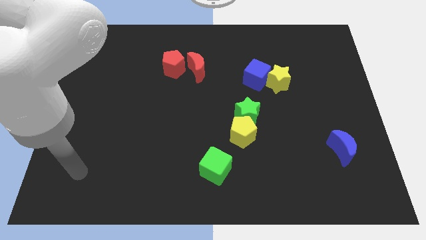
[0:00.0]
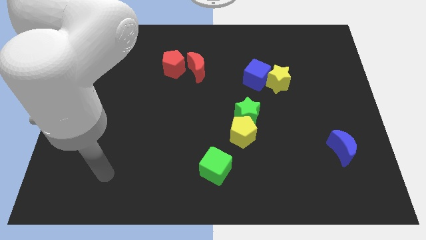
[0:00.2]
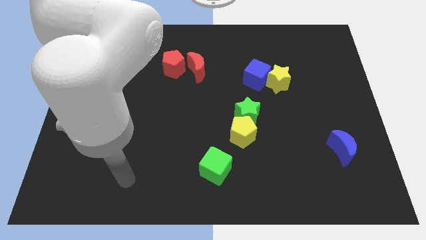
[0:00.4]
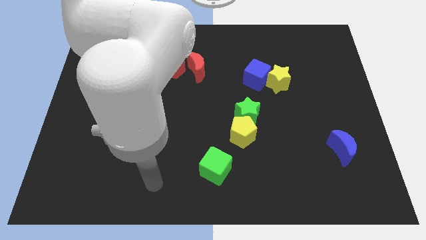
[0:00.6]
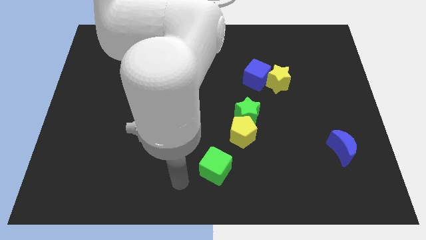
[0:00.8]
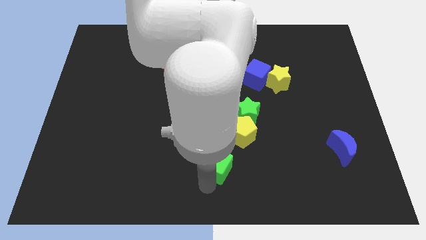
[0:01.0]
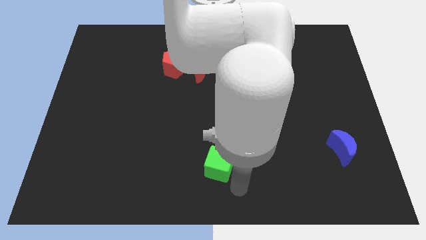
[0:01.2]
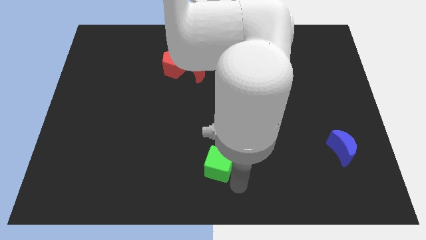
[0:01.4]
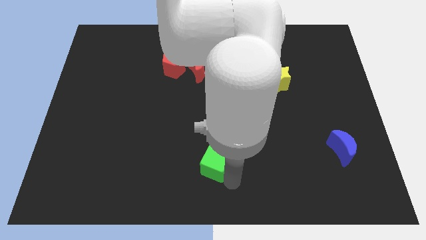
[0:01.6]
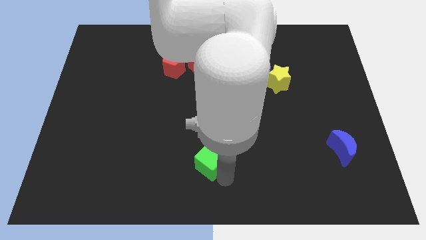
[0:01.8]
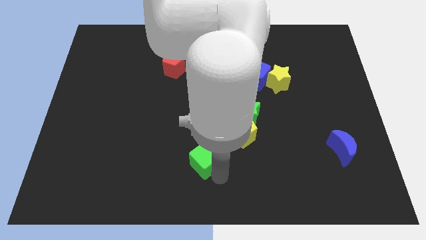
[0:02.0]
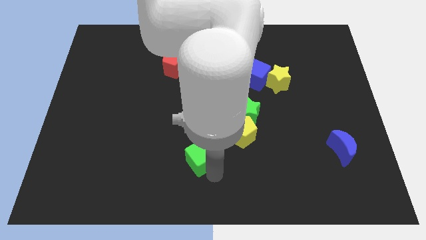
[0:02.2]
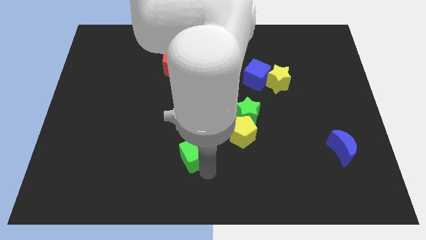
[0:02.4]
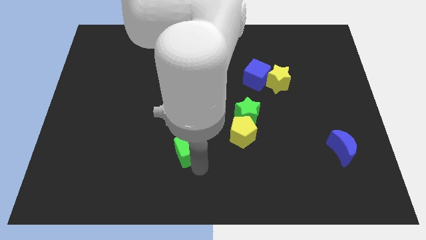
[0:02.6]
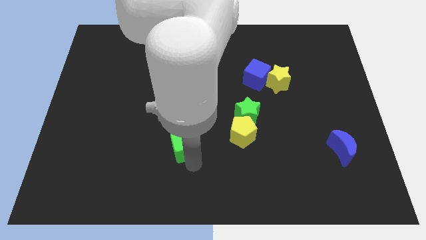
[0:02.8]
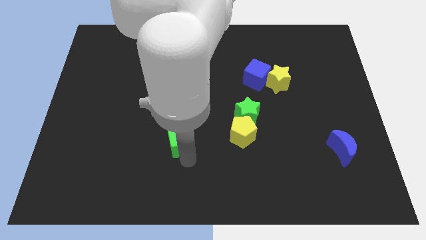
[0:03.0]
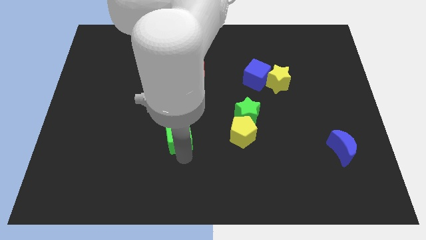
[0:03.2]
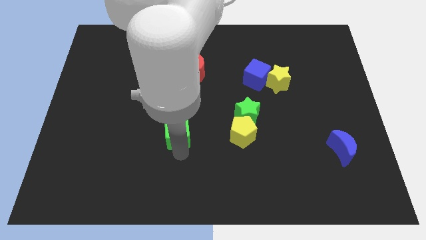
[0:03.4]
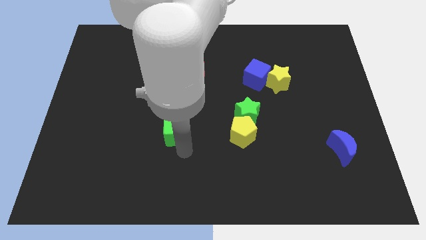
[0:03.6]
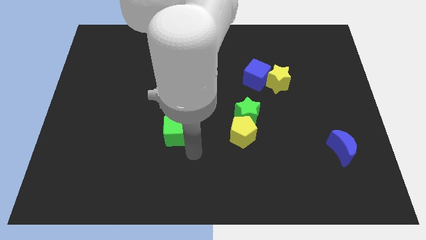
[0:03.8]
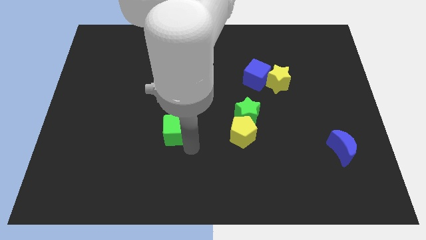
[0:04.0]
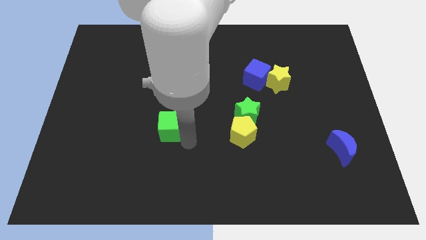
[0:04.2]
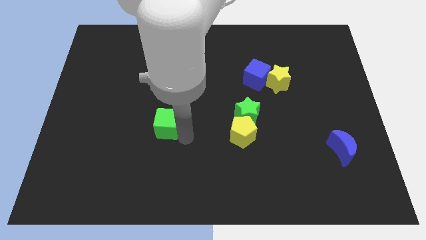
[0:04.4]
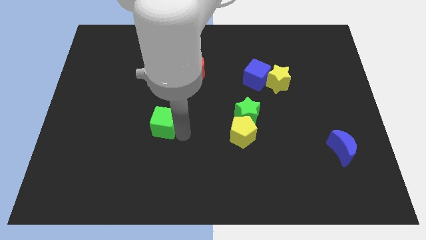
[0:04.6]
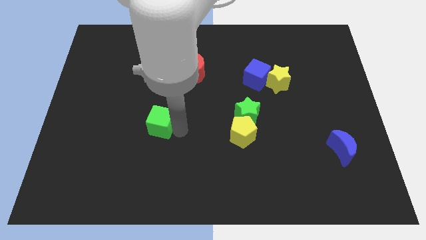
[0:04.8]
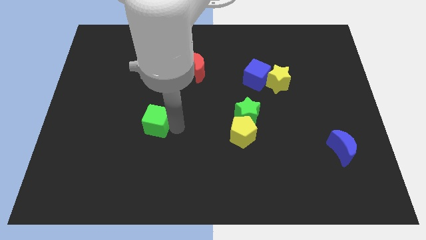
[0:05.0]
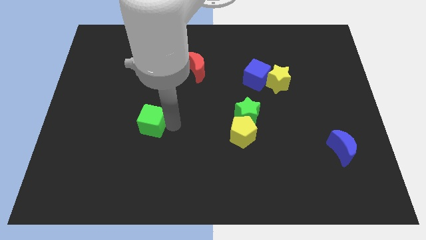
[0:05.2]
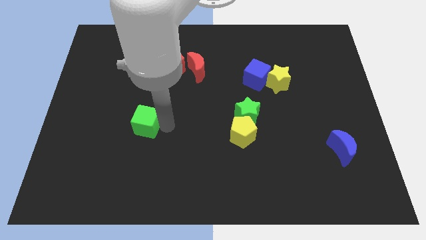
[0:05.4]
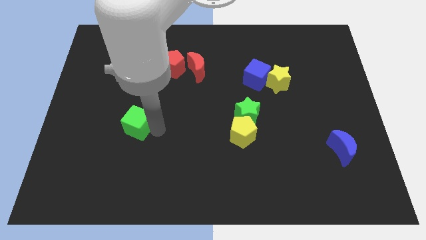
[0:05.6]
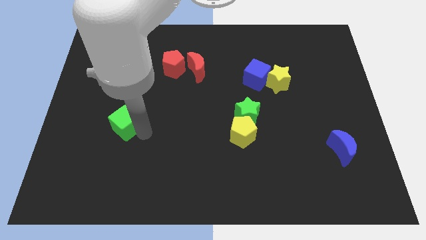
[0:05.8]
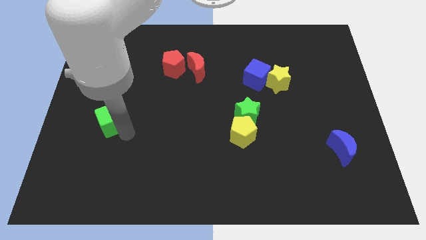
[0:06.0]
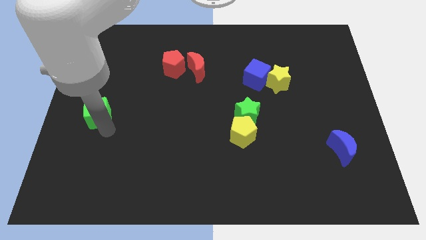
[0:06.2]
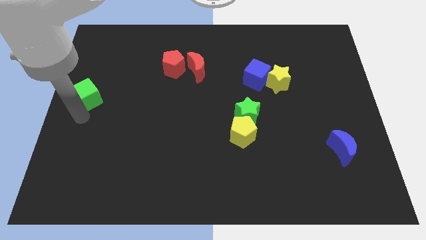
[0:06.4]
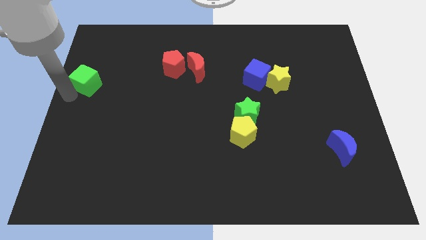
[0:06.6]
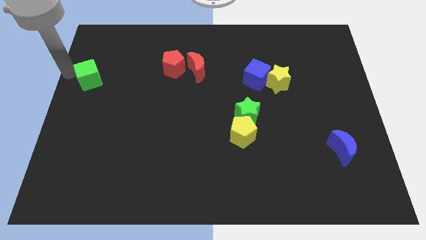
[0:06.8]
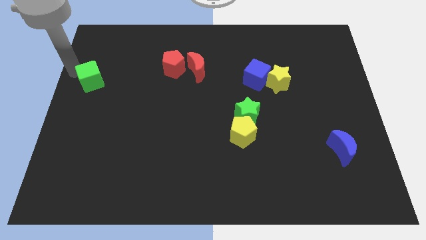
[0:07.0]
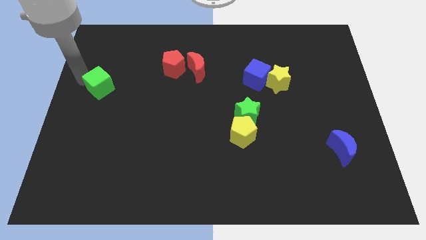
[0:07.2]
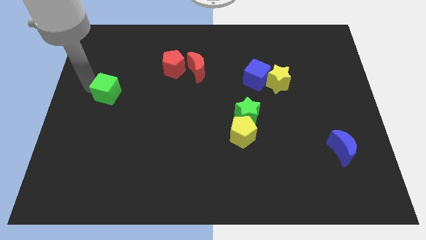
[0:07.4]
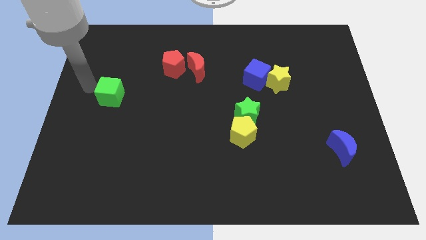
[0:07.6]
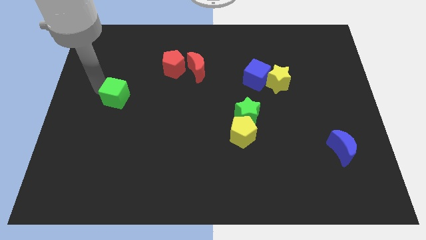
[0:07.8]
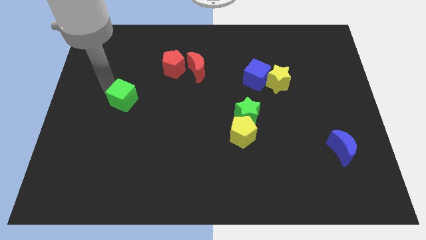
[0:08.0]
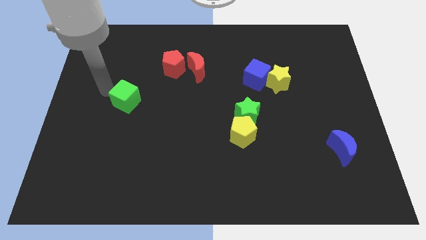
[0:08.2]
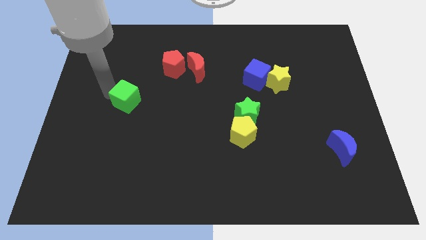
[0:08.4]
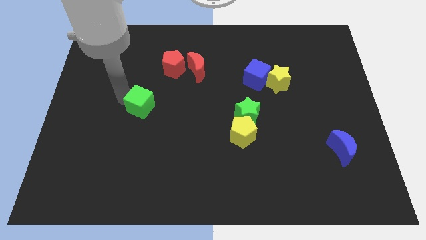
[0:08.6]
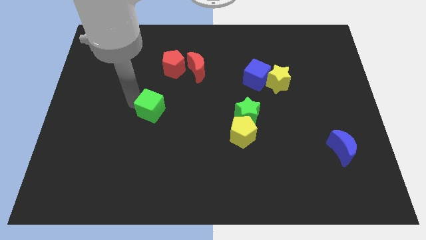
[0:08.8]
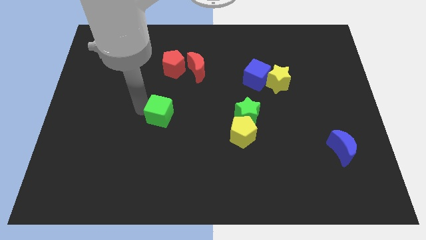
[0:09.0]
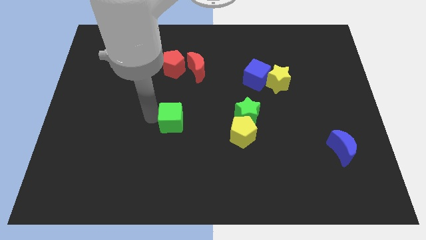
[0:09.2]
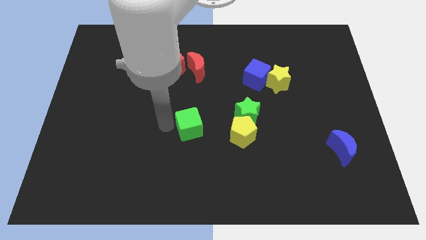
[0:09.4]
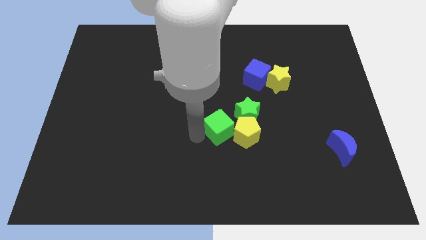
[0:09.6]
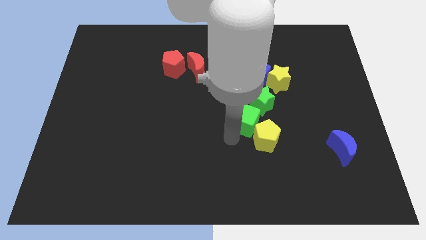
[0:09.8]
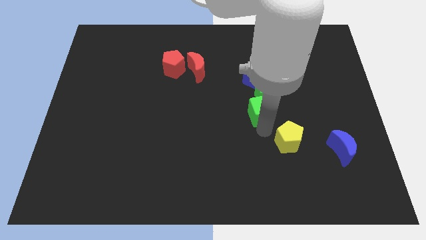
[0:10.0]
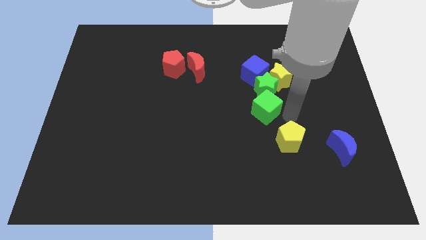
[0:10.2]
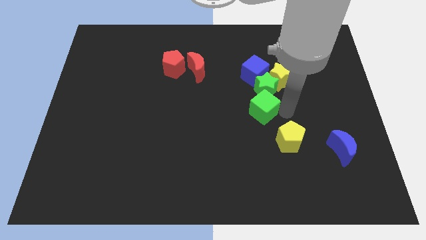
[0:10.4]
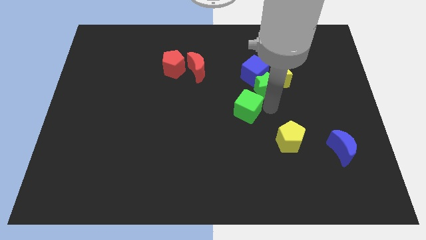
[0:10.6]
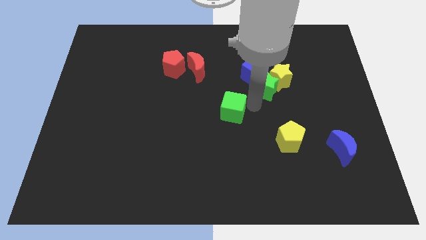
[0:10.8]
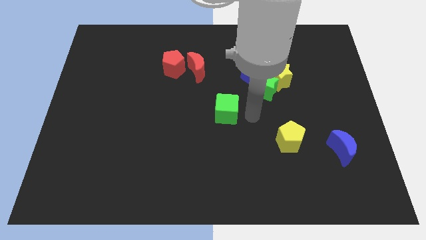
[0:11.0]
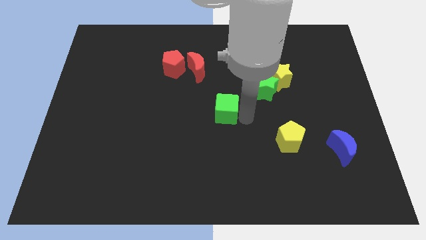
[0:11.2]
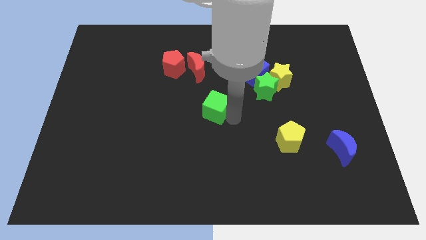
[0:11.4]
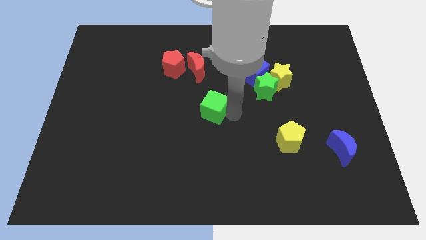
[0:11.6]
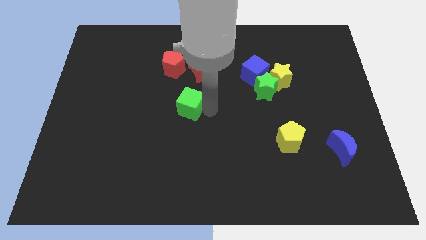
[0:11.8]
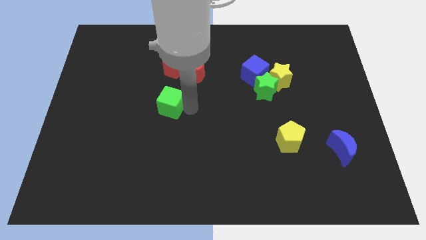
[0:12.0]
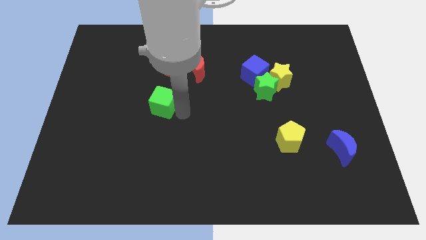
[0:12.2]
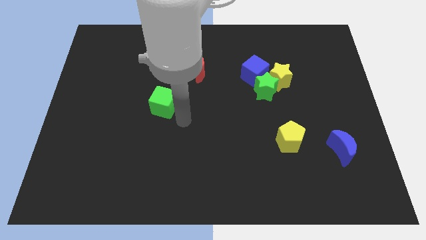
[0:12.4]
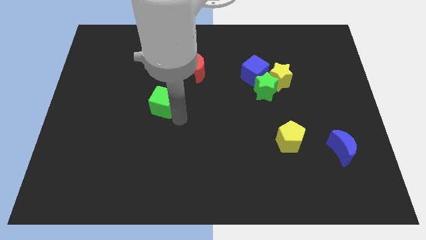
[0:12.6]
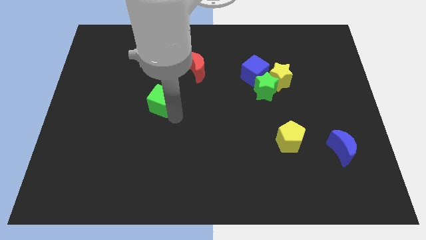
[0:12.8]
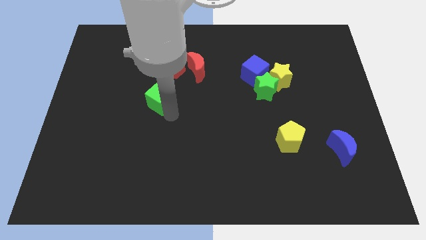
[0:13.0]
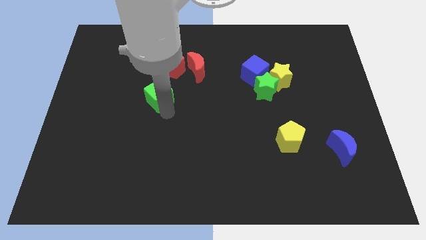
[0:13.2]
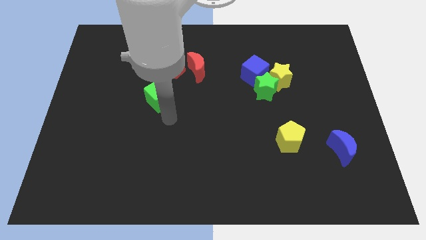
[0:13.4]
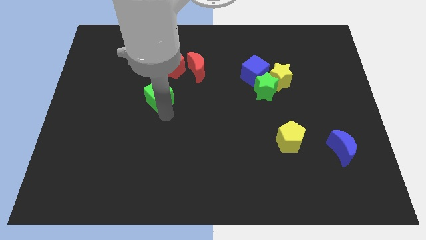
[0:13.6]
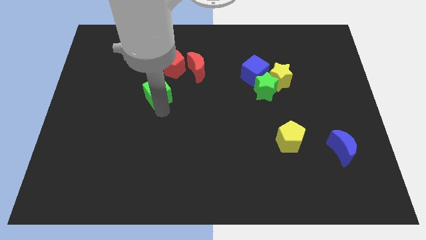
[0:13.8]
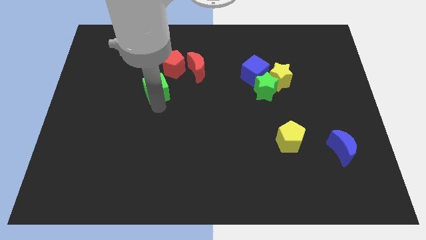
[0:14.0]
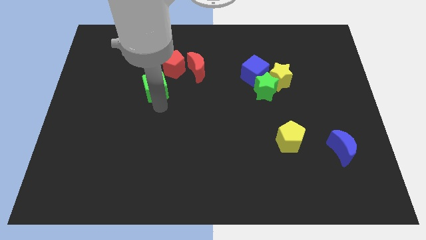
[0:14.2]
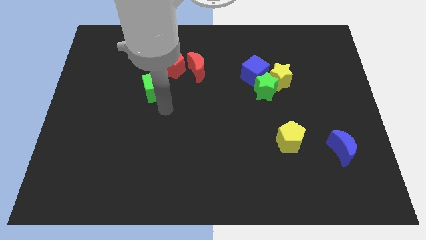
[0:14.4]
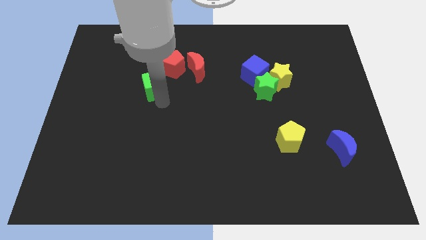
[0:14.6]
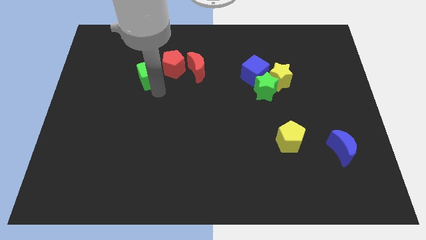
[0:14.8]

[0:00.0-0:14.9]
move the green cube to the left side of the red pentagon
